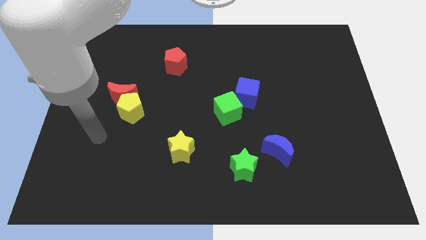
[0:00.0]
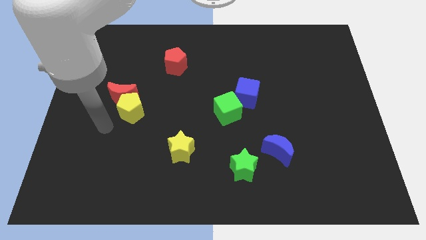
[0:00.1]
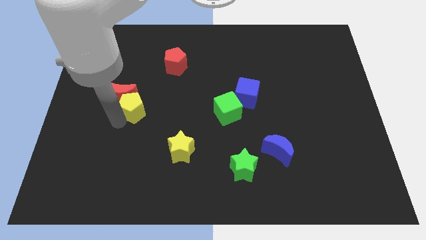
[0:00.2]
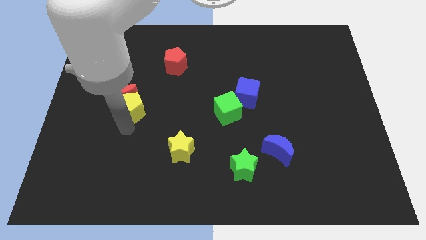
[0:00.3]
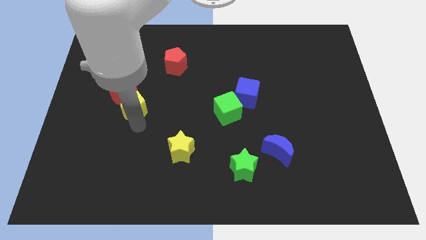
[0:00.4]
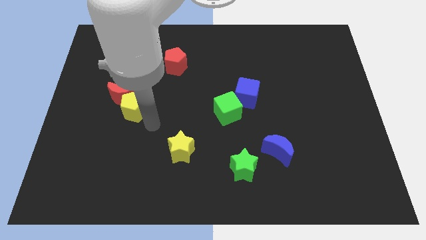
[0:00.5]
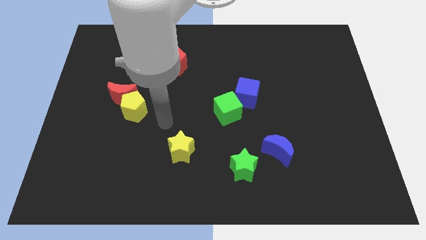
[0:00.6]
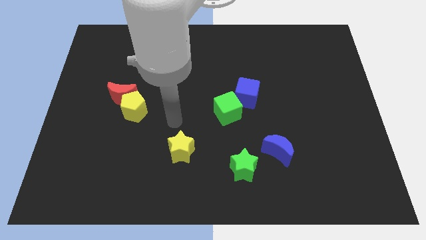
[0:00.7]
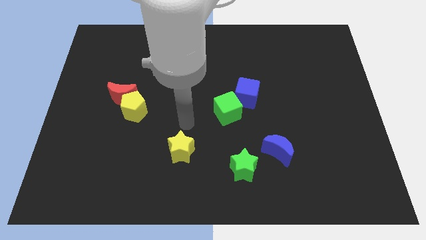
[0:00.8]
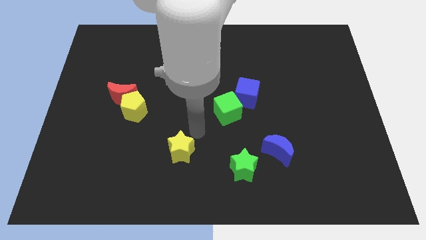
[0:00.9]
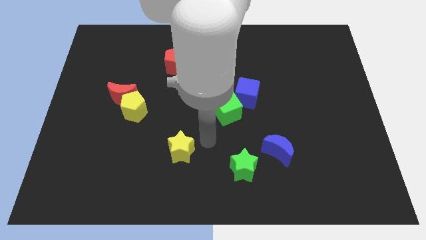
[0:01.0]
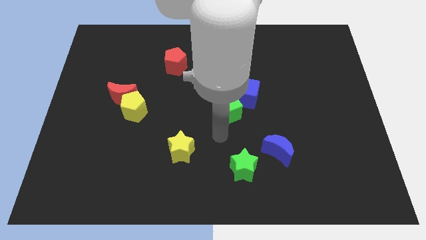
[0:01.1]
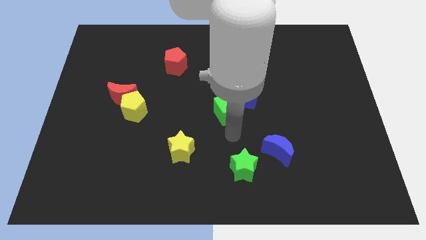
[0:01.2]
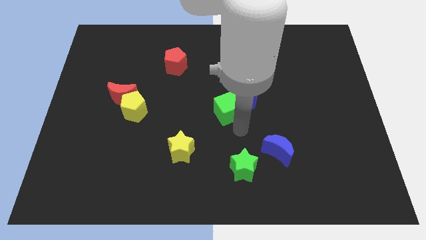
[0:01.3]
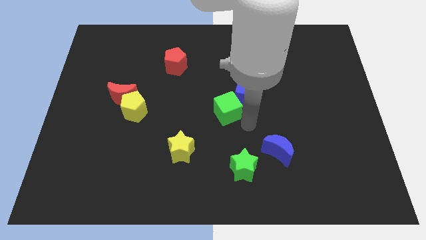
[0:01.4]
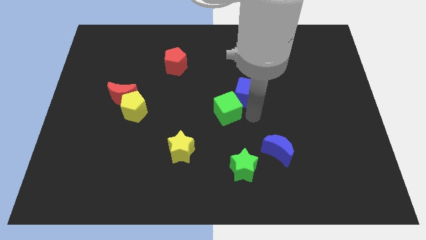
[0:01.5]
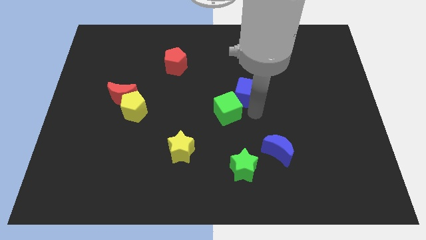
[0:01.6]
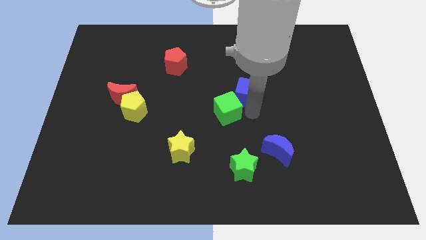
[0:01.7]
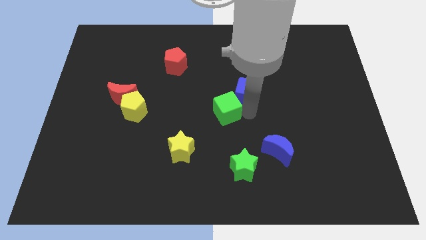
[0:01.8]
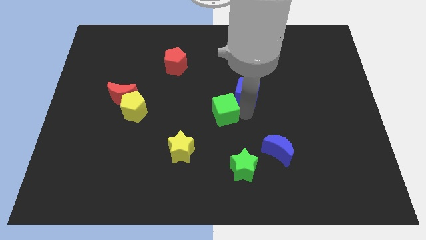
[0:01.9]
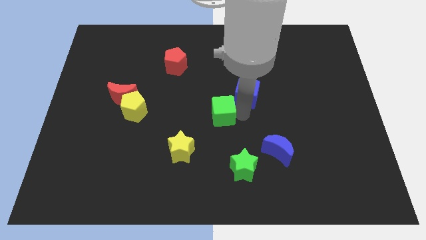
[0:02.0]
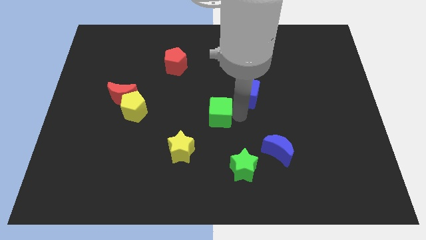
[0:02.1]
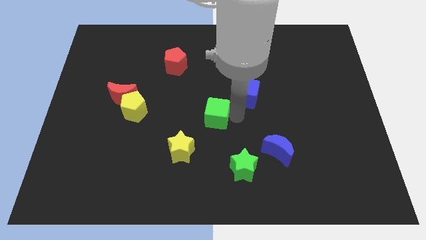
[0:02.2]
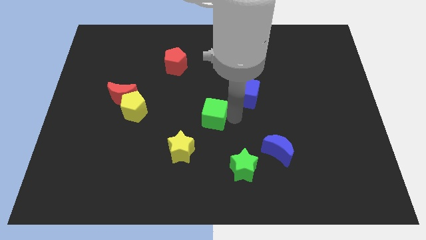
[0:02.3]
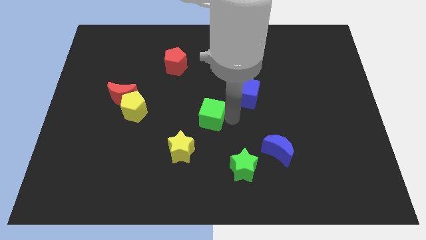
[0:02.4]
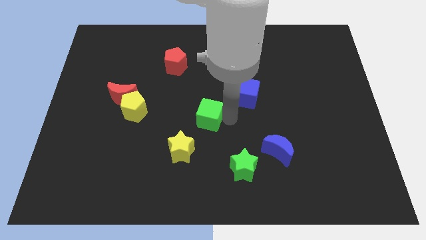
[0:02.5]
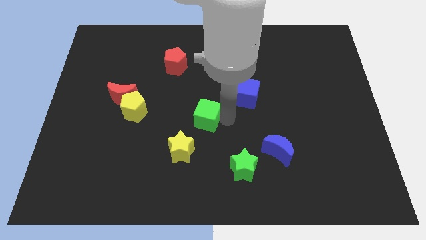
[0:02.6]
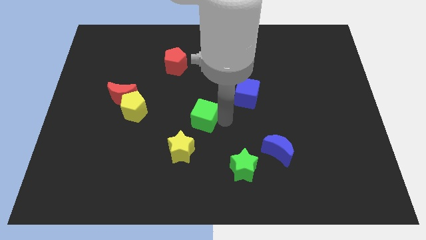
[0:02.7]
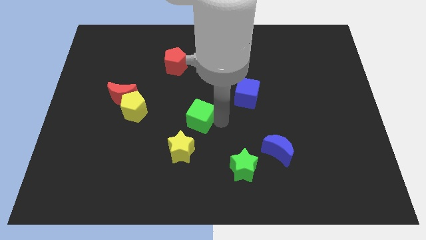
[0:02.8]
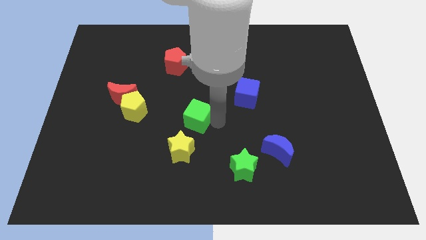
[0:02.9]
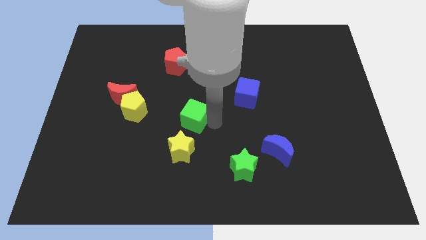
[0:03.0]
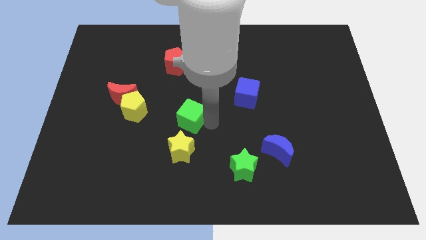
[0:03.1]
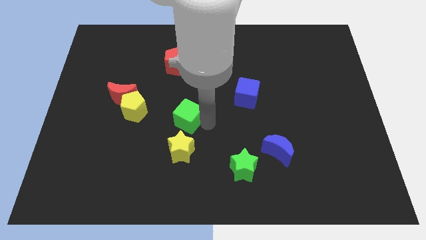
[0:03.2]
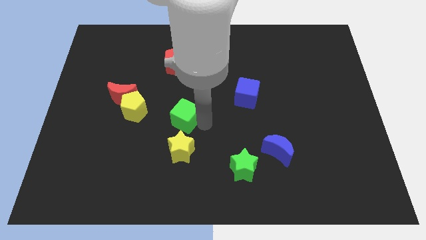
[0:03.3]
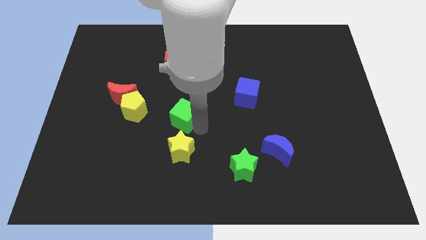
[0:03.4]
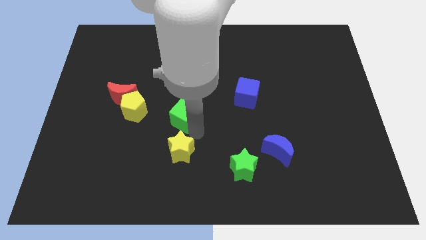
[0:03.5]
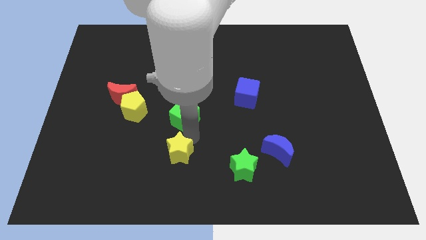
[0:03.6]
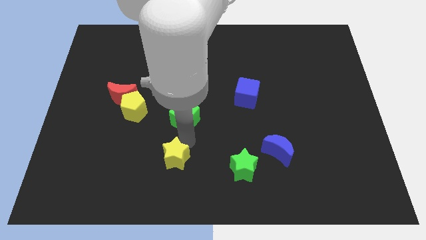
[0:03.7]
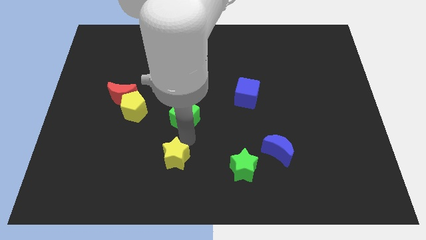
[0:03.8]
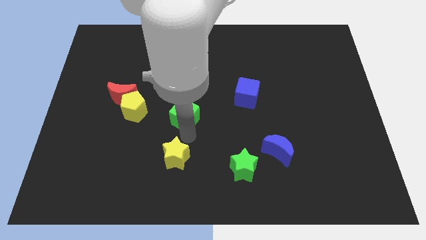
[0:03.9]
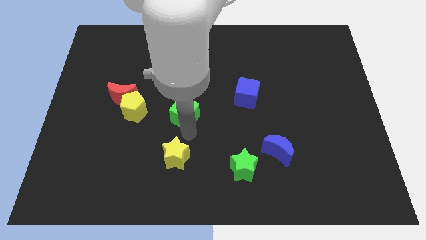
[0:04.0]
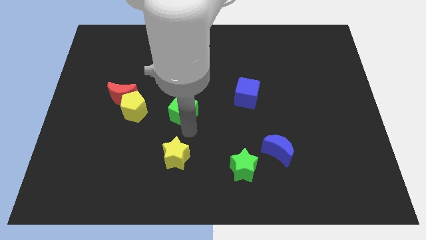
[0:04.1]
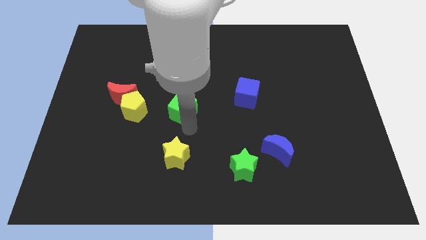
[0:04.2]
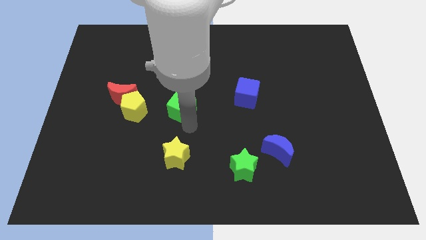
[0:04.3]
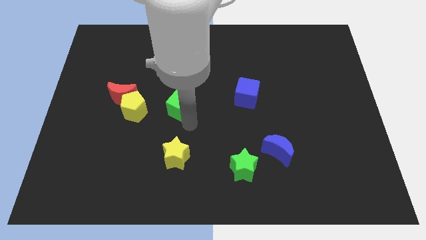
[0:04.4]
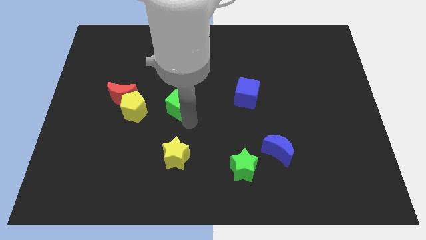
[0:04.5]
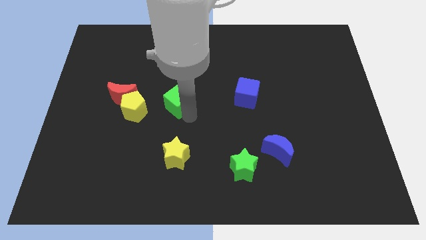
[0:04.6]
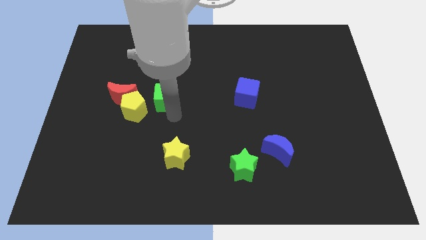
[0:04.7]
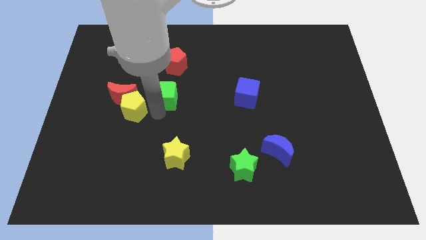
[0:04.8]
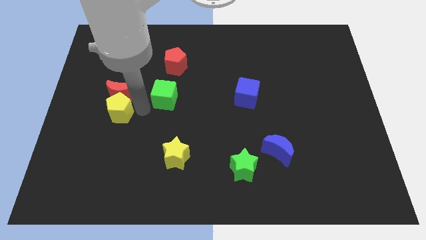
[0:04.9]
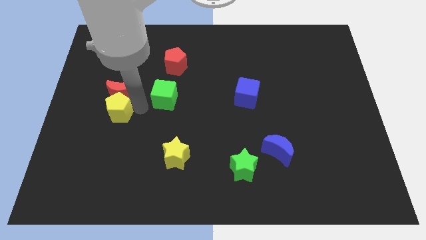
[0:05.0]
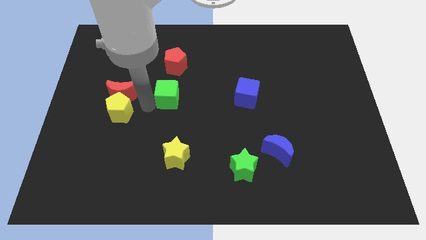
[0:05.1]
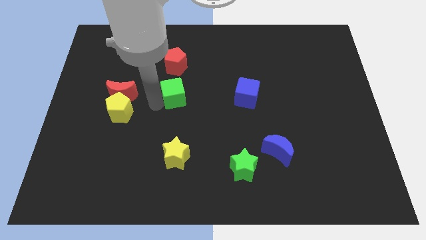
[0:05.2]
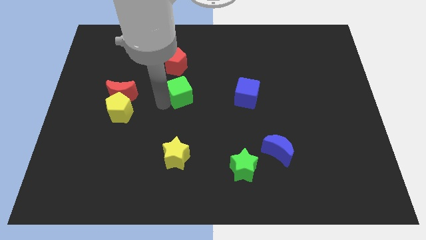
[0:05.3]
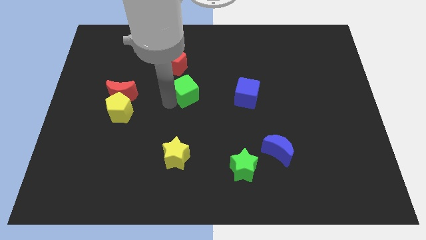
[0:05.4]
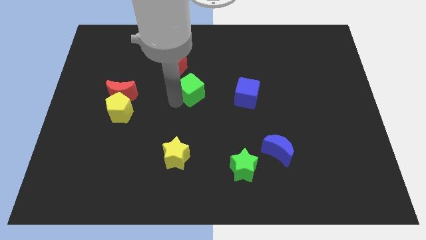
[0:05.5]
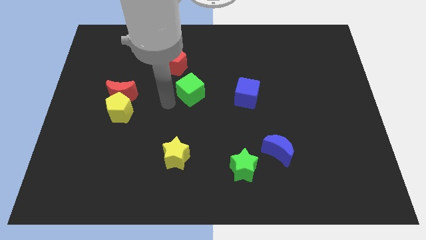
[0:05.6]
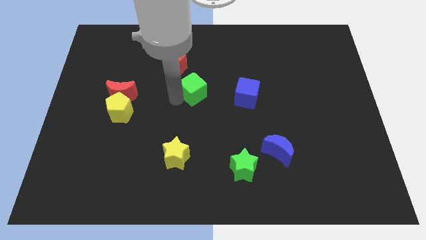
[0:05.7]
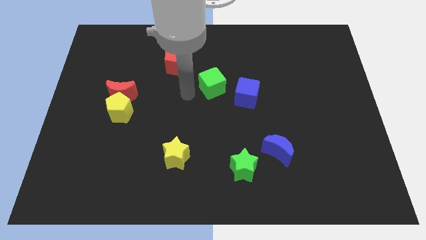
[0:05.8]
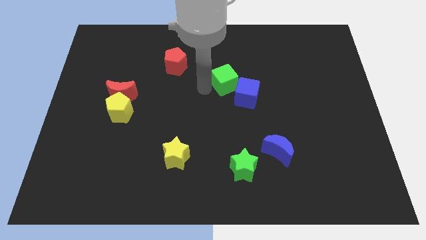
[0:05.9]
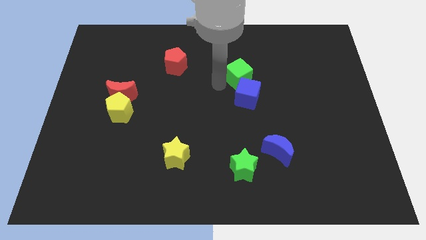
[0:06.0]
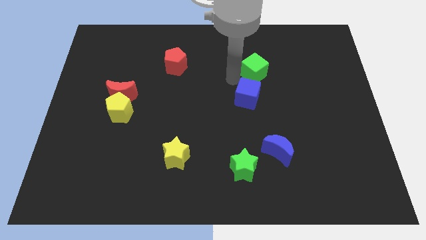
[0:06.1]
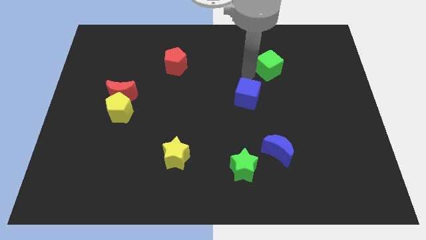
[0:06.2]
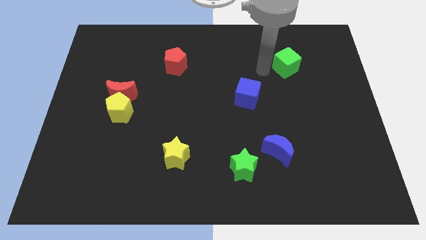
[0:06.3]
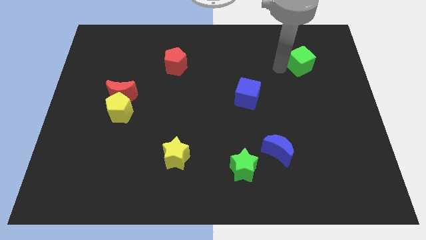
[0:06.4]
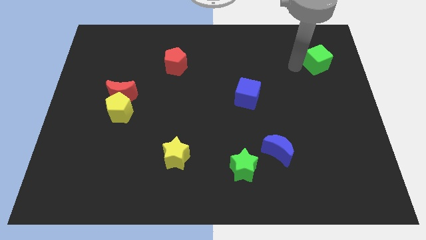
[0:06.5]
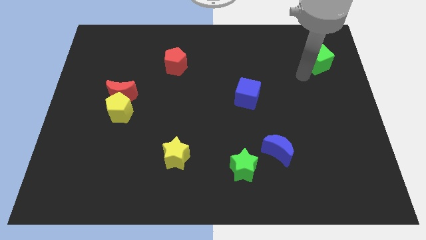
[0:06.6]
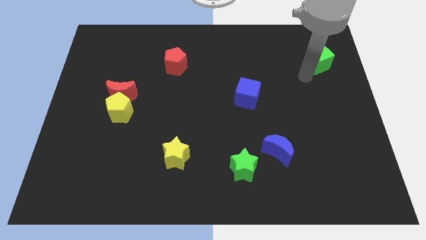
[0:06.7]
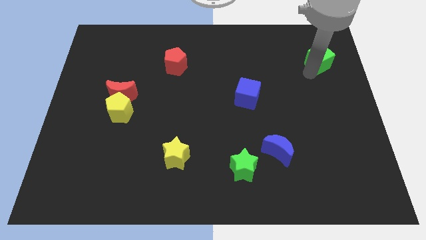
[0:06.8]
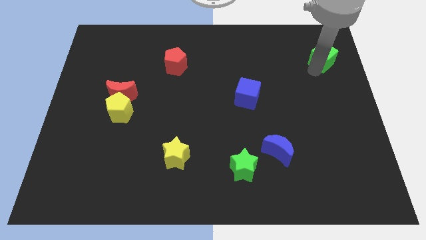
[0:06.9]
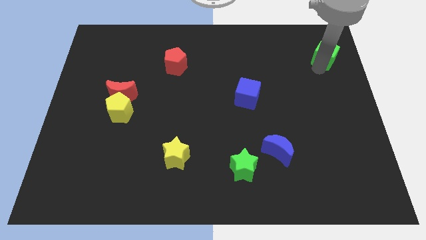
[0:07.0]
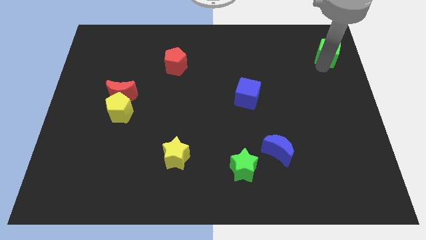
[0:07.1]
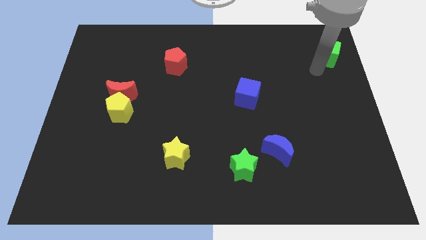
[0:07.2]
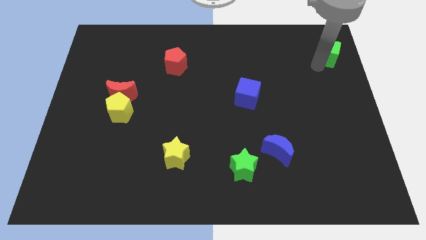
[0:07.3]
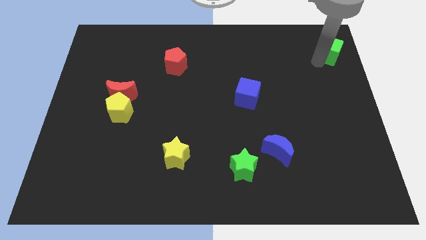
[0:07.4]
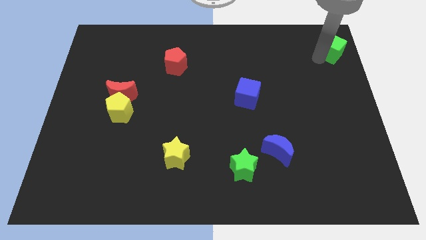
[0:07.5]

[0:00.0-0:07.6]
push the green cube to the top right of the board
